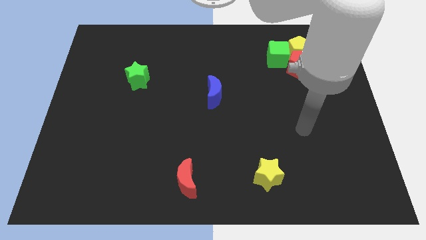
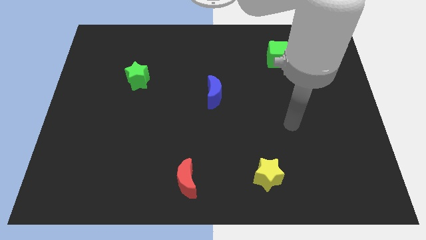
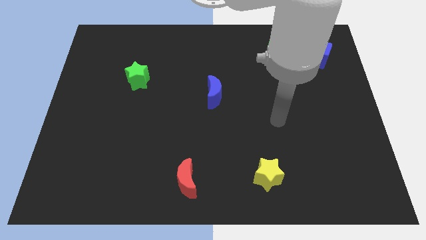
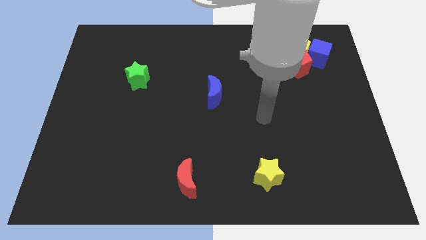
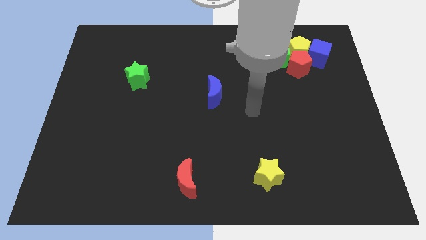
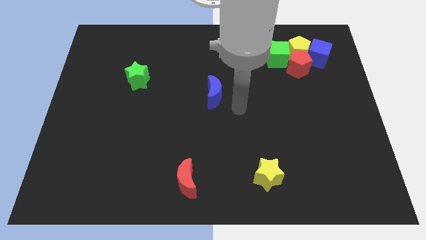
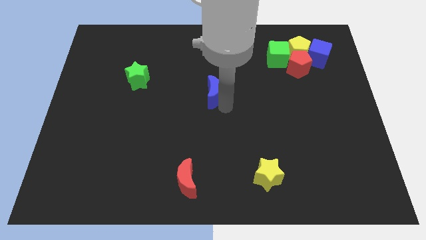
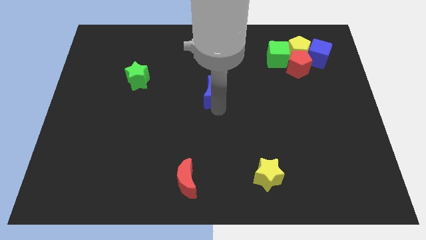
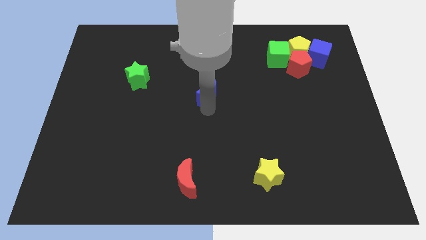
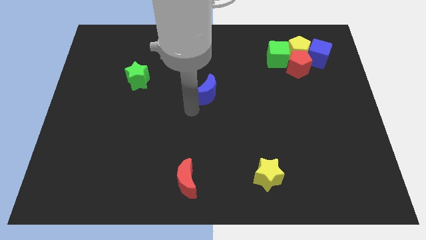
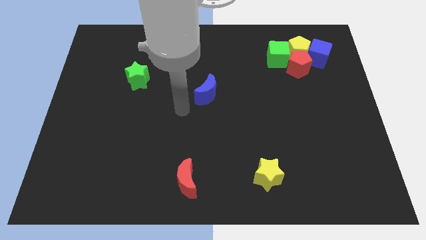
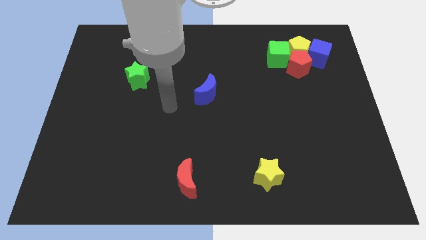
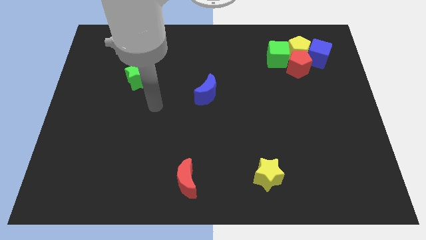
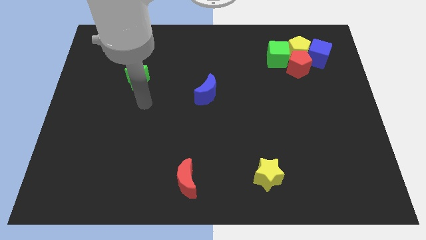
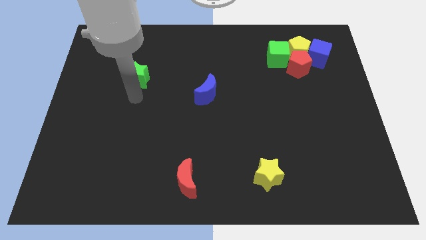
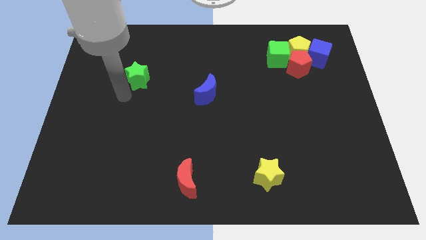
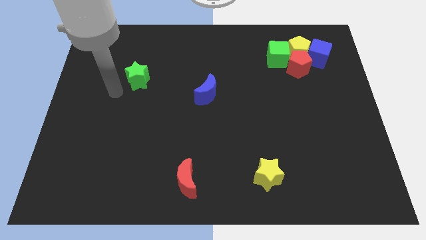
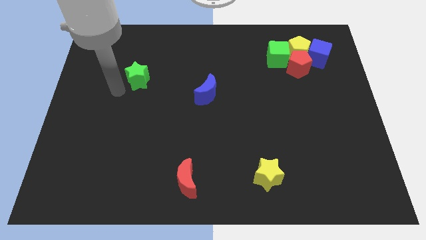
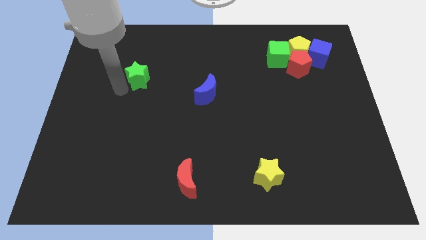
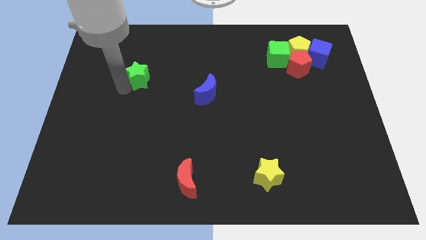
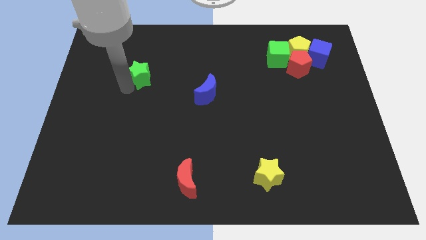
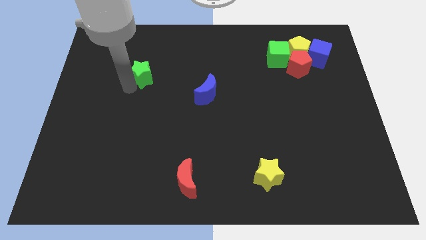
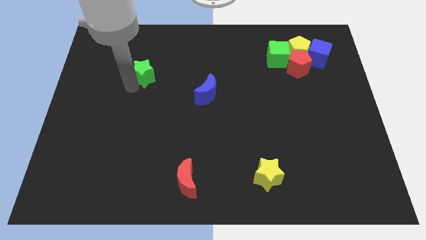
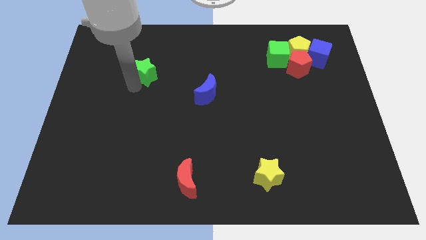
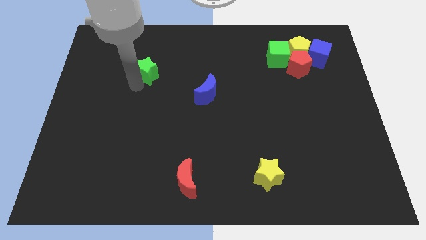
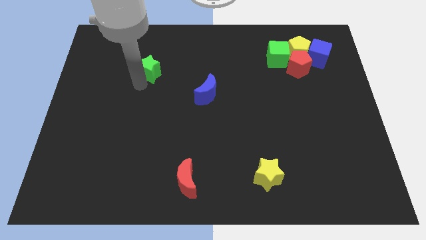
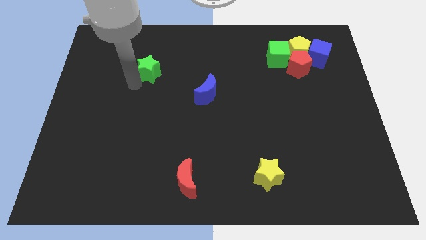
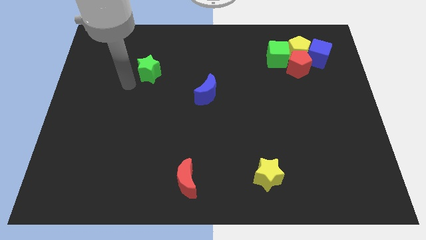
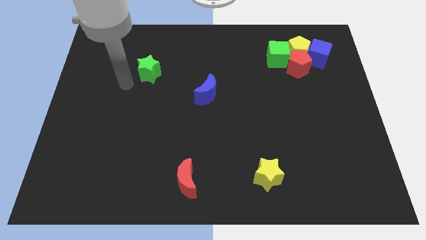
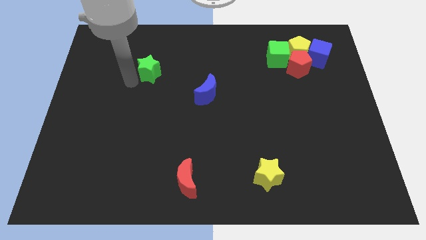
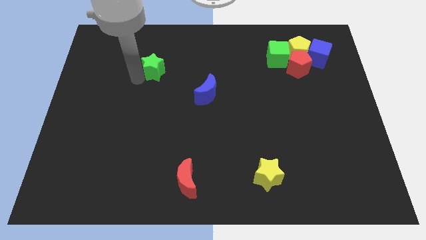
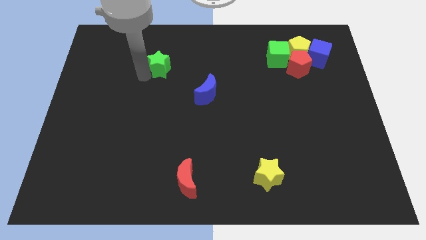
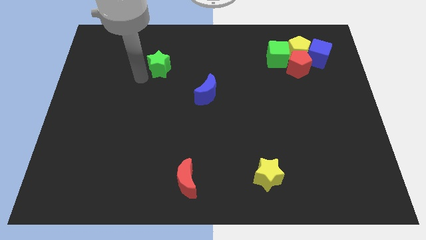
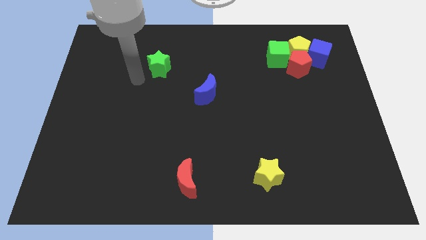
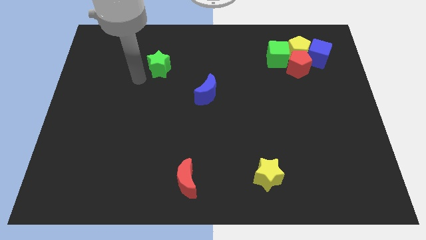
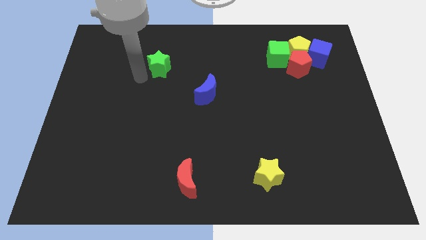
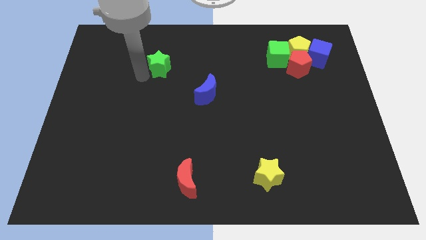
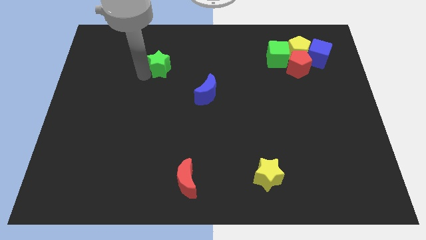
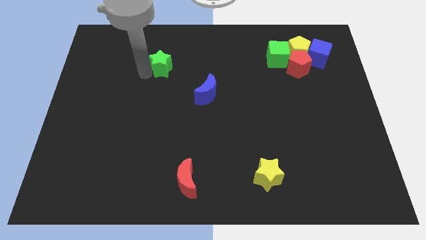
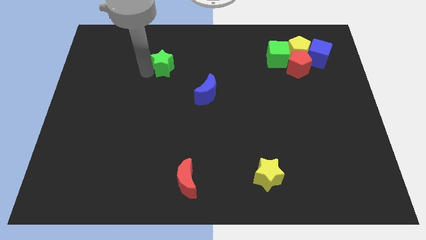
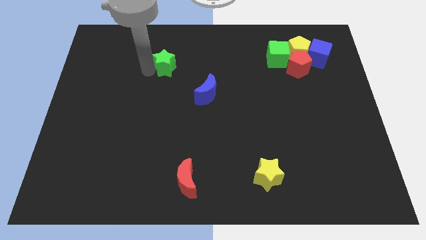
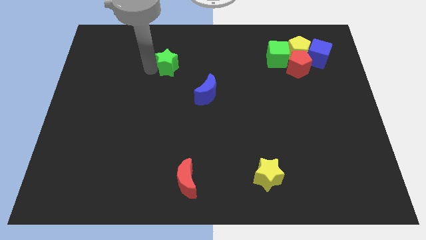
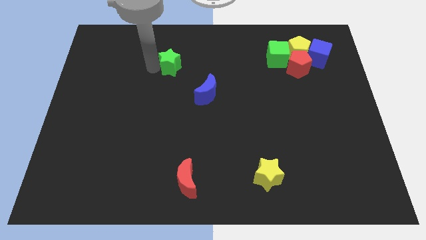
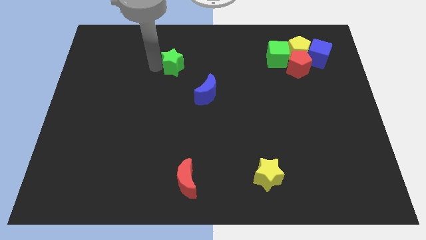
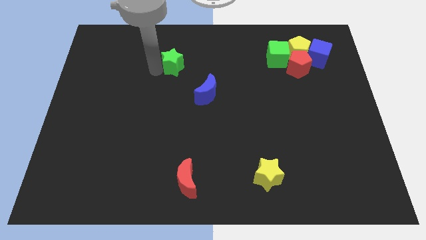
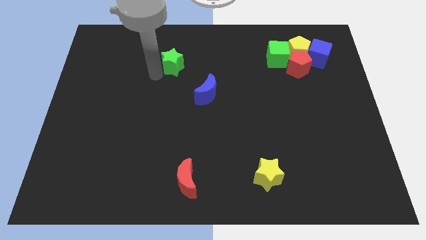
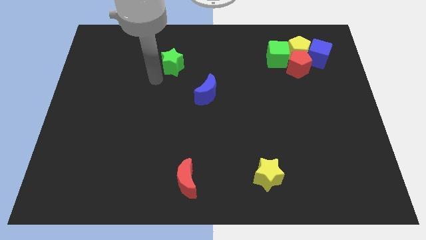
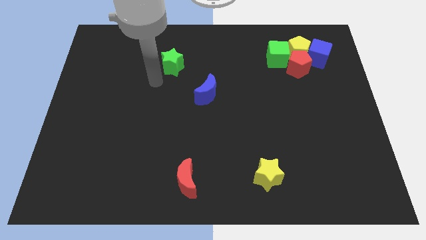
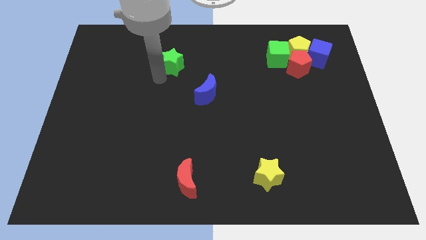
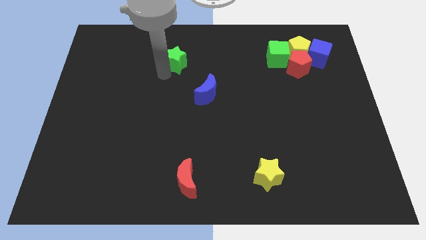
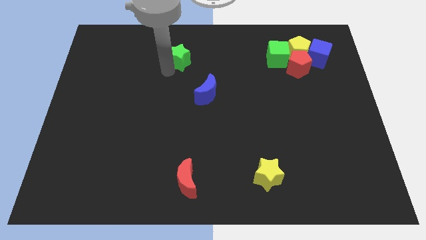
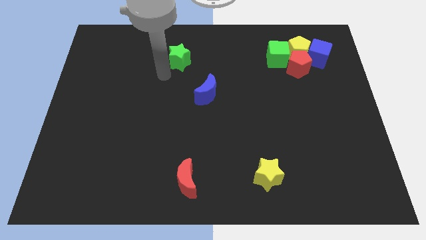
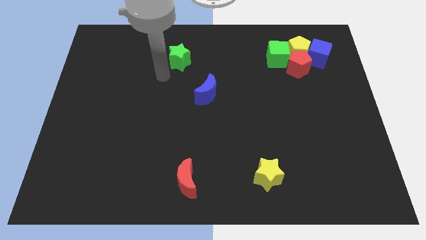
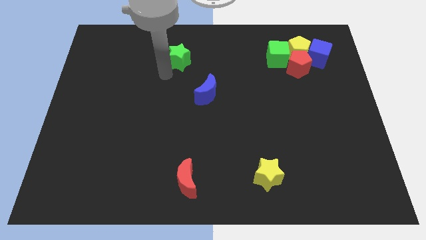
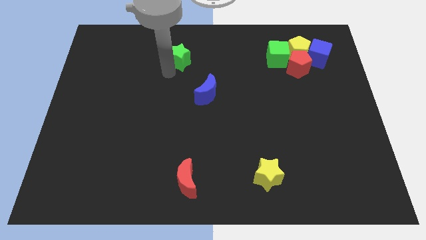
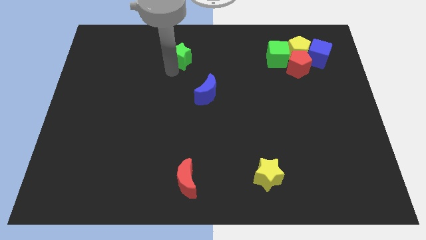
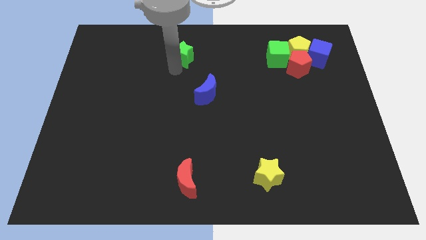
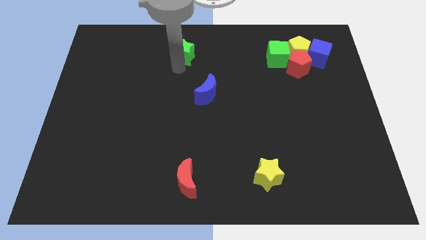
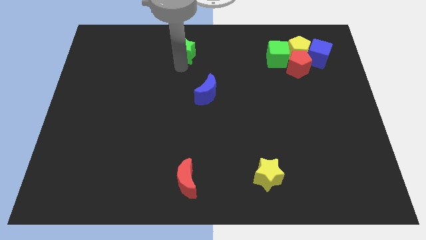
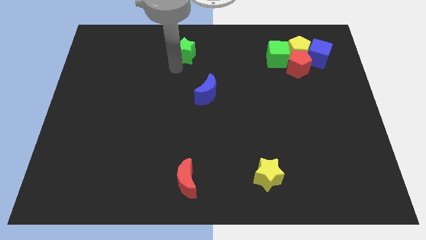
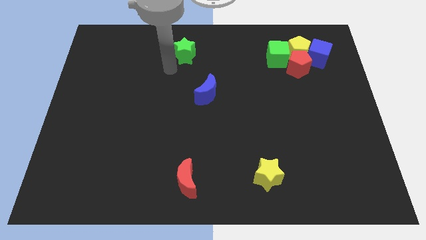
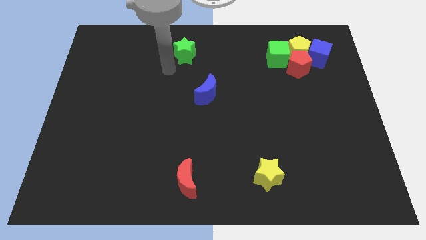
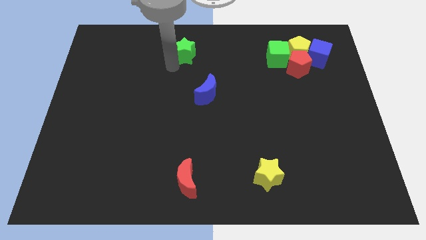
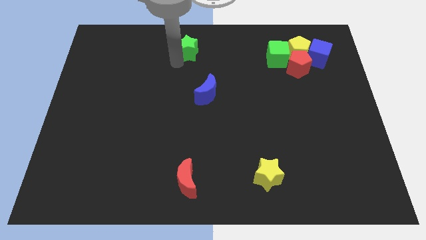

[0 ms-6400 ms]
put the green star to the top side
